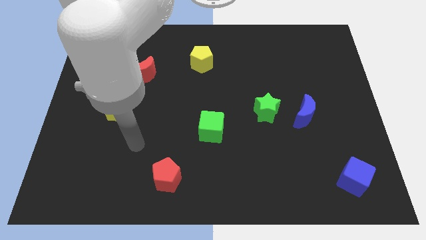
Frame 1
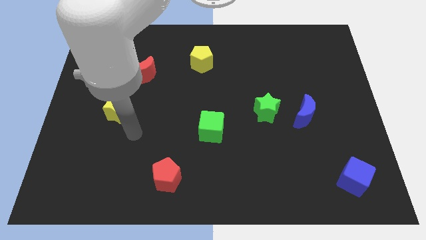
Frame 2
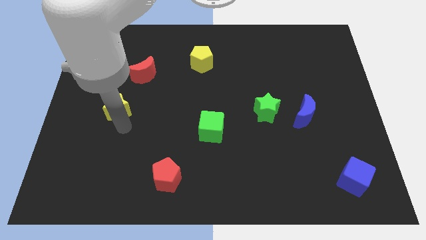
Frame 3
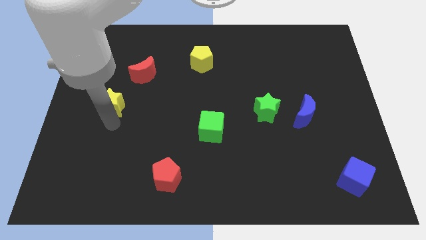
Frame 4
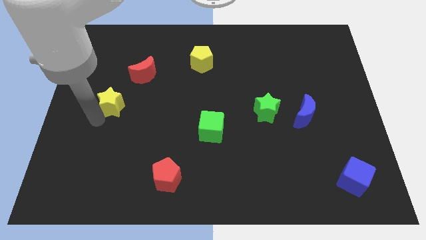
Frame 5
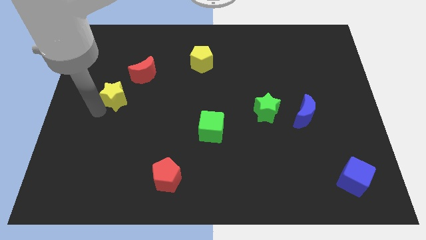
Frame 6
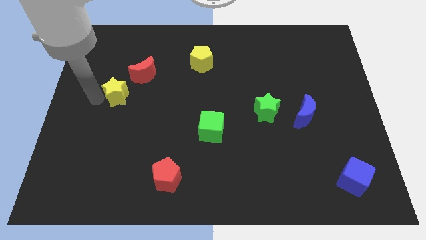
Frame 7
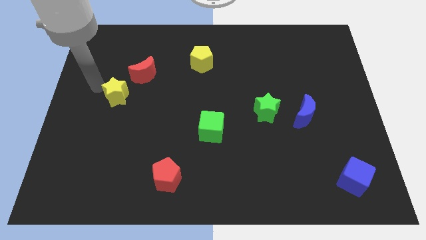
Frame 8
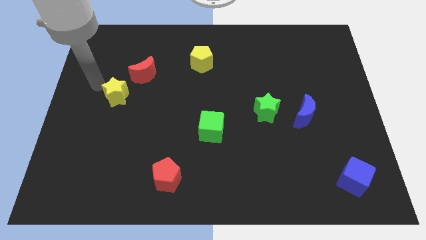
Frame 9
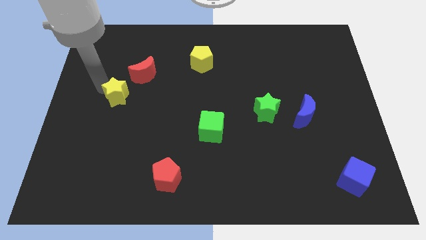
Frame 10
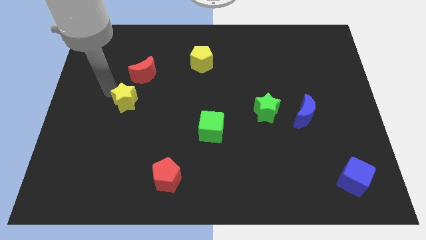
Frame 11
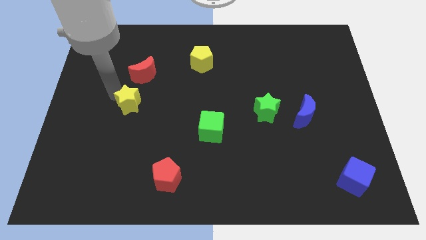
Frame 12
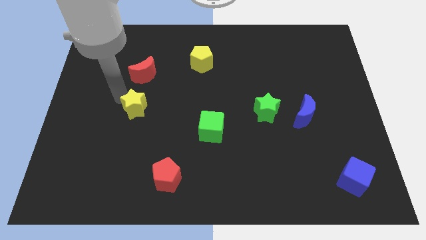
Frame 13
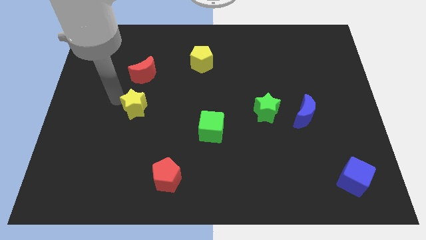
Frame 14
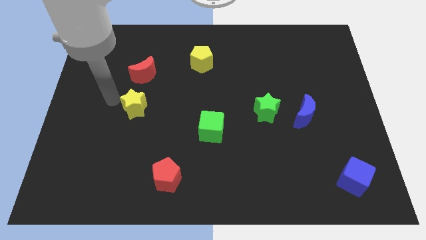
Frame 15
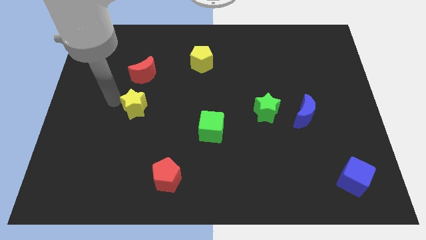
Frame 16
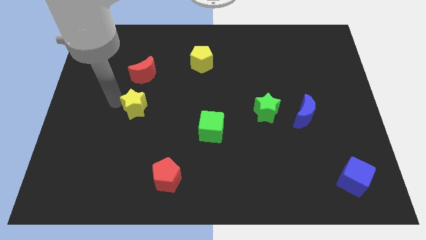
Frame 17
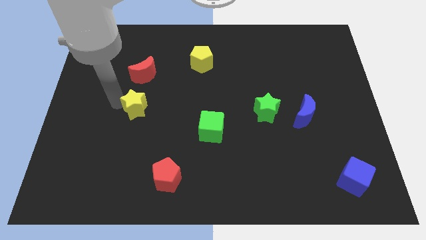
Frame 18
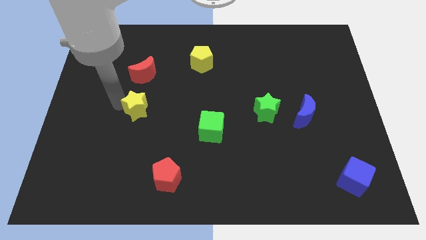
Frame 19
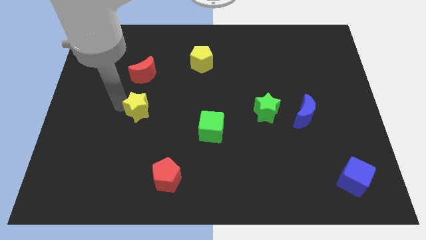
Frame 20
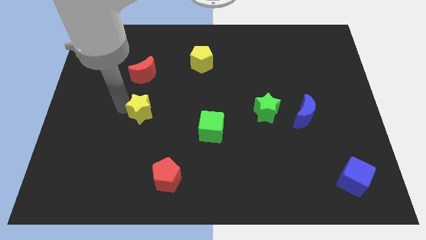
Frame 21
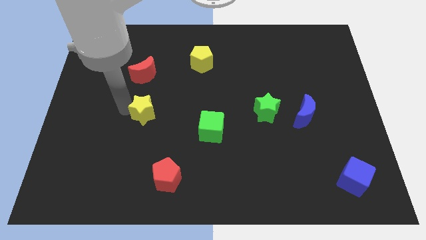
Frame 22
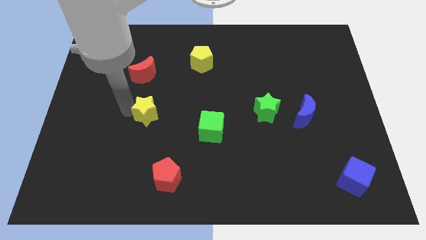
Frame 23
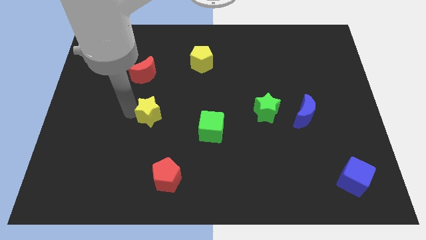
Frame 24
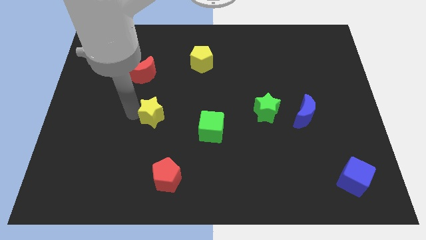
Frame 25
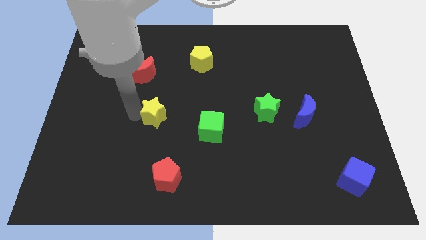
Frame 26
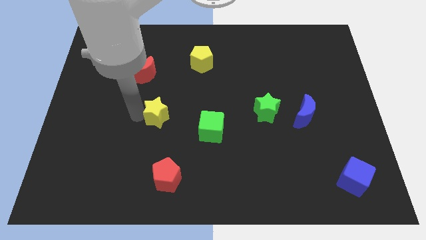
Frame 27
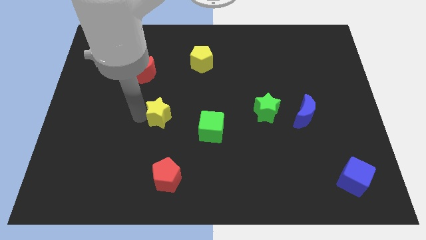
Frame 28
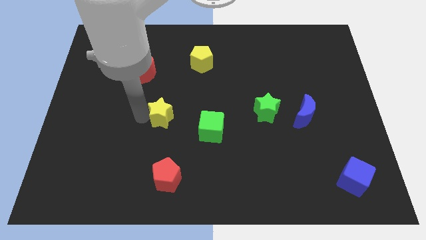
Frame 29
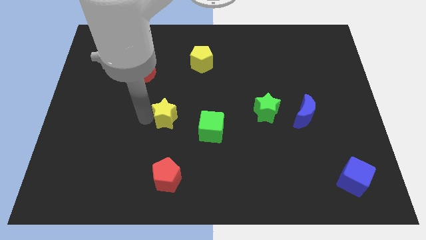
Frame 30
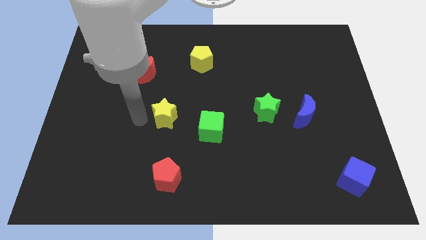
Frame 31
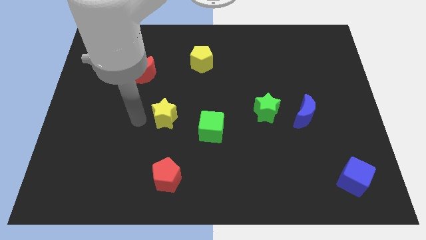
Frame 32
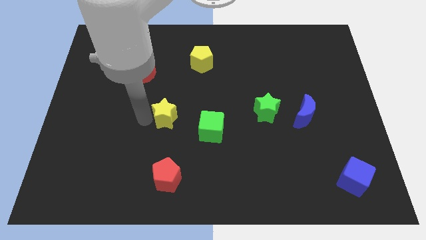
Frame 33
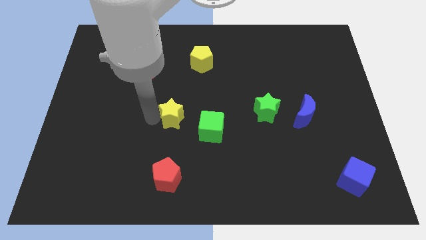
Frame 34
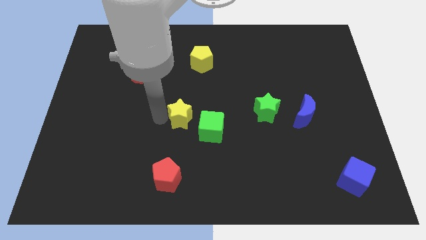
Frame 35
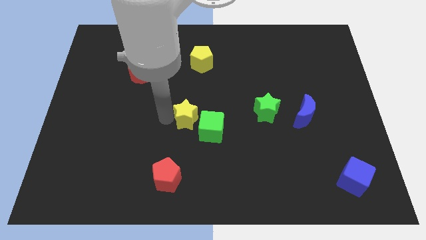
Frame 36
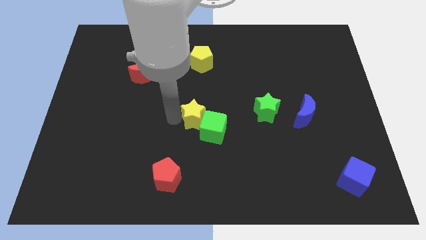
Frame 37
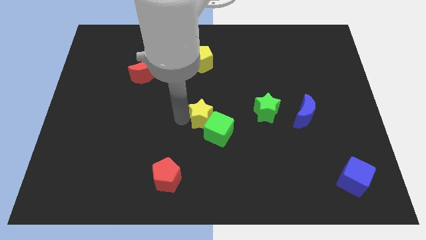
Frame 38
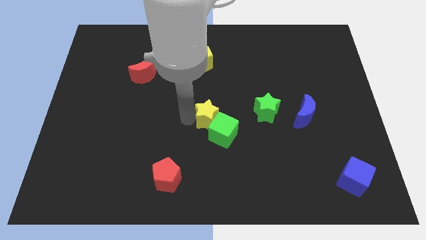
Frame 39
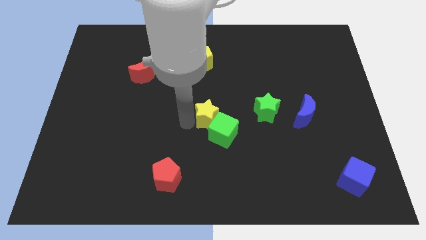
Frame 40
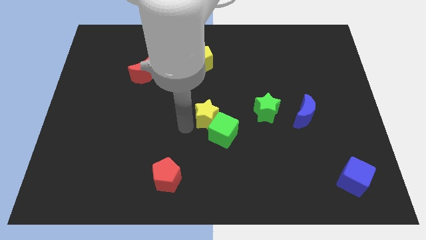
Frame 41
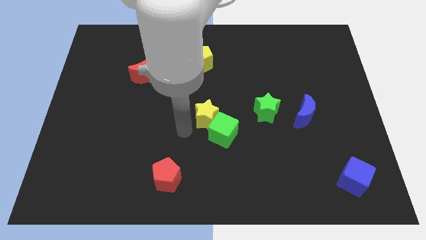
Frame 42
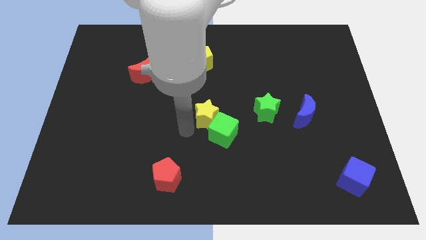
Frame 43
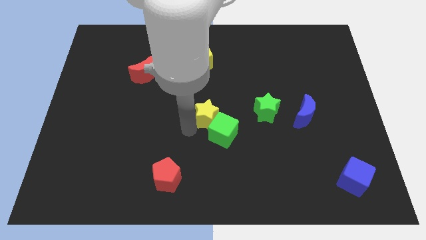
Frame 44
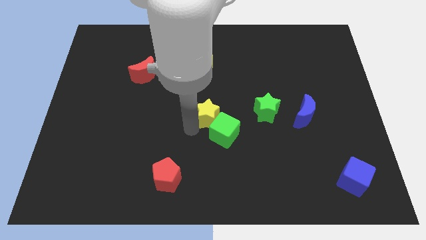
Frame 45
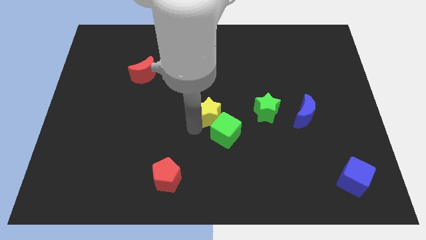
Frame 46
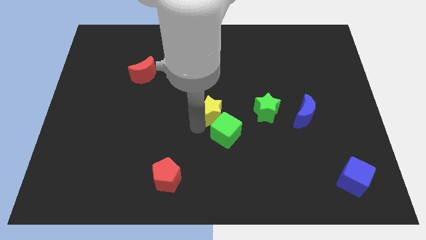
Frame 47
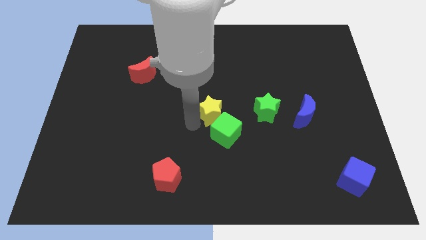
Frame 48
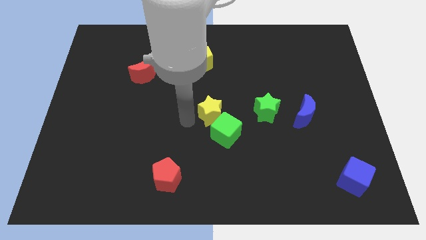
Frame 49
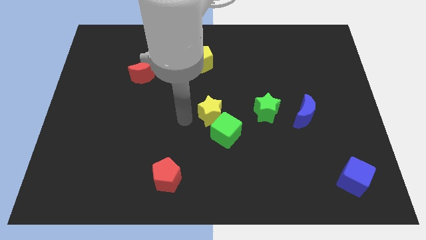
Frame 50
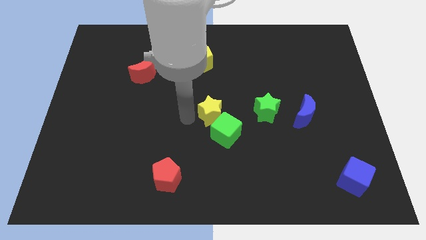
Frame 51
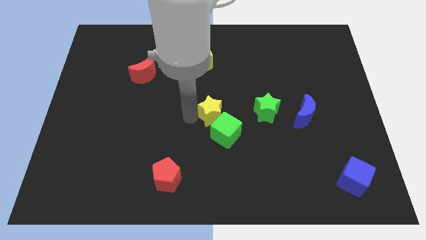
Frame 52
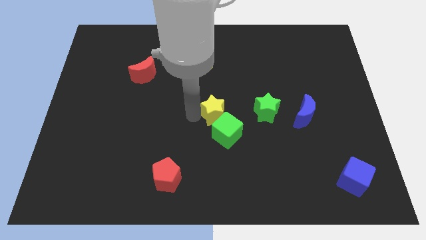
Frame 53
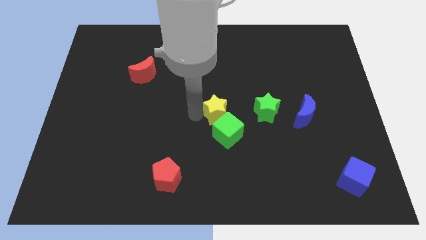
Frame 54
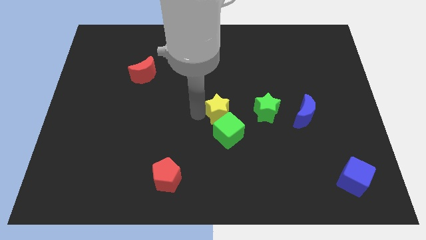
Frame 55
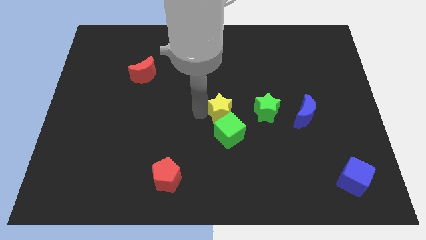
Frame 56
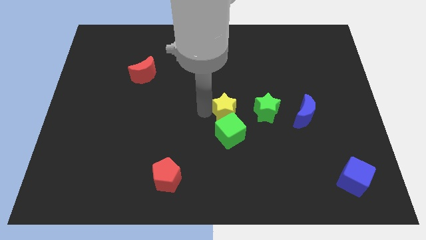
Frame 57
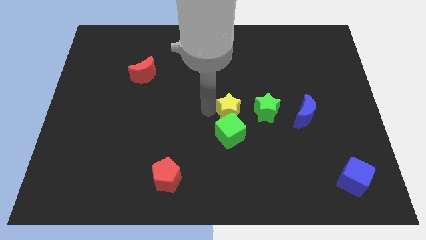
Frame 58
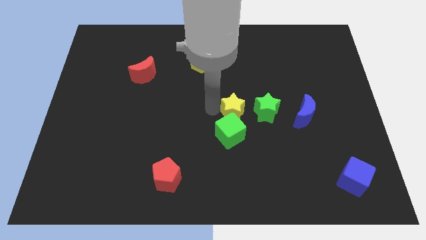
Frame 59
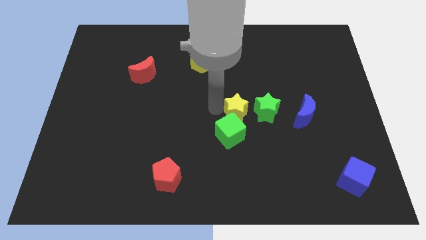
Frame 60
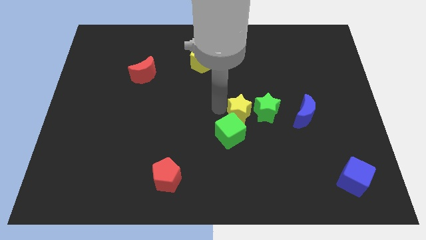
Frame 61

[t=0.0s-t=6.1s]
push the yellow star to the green star
